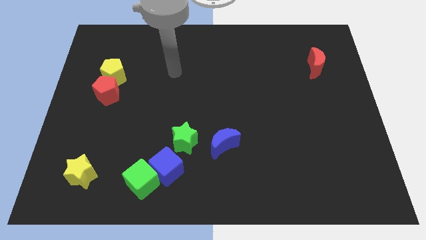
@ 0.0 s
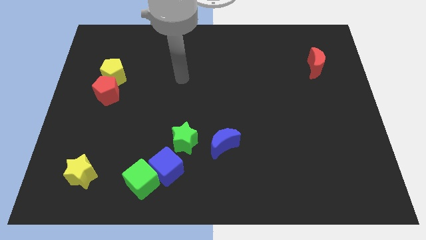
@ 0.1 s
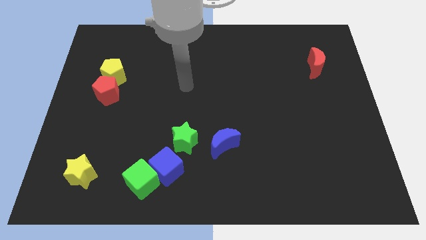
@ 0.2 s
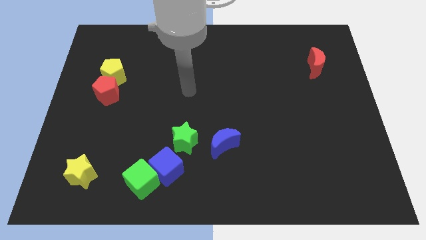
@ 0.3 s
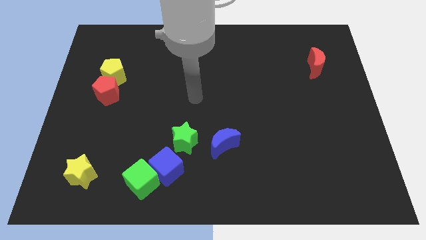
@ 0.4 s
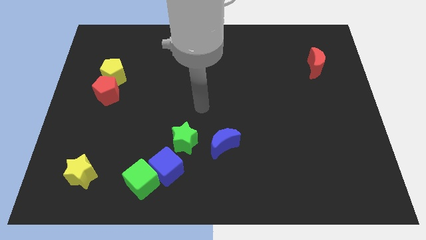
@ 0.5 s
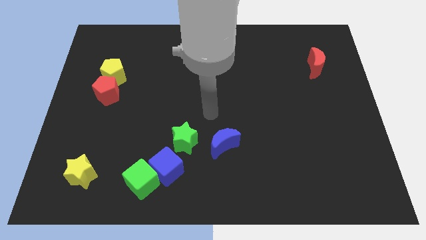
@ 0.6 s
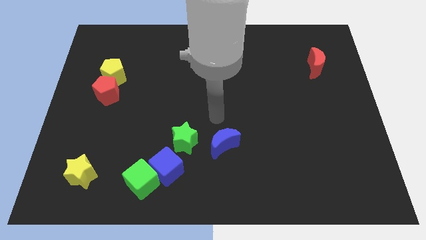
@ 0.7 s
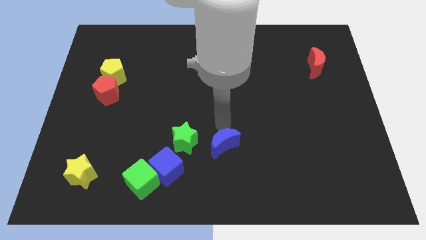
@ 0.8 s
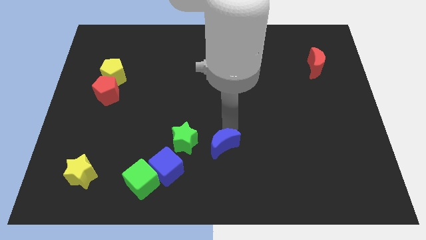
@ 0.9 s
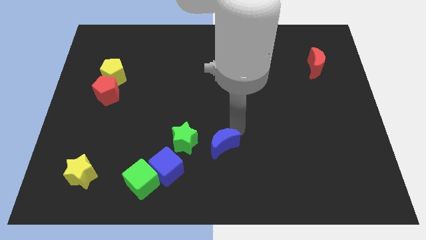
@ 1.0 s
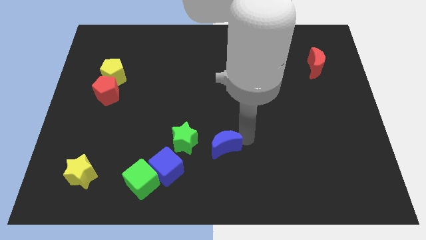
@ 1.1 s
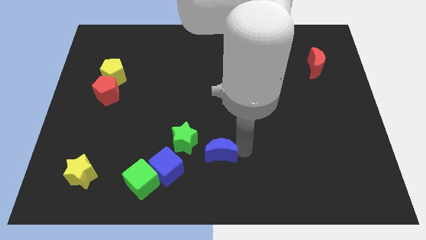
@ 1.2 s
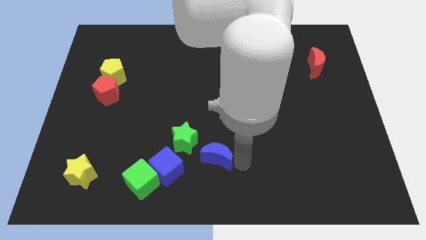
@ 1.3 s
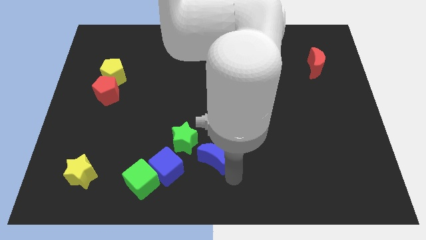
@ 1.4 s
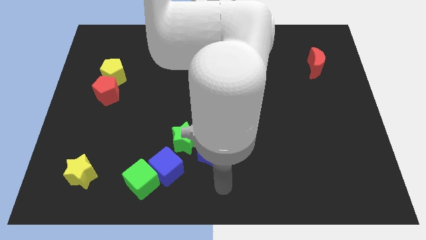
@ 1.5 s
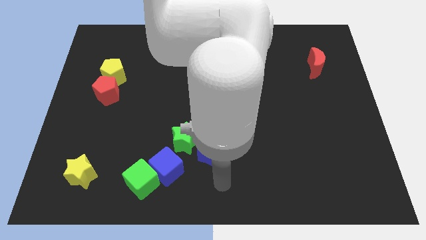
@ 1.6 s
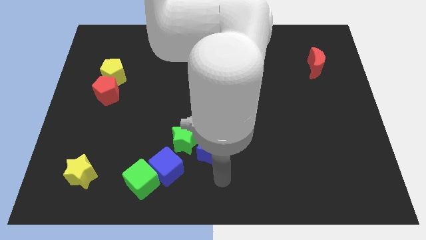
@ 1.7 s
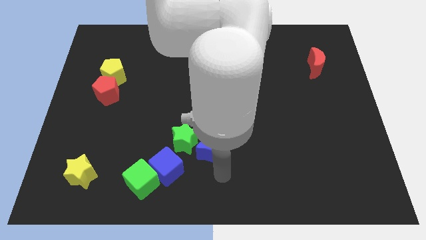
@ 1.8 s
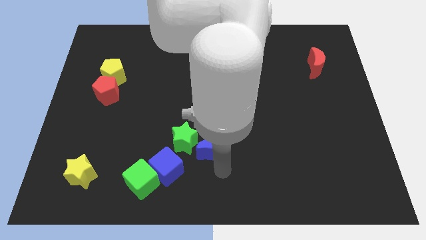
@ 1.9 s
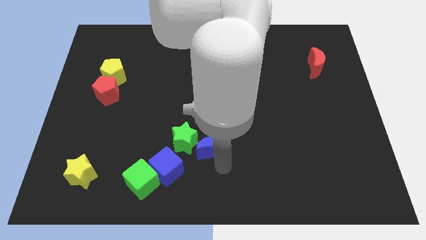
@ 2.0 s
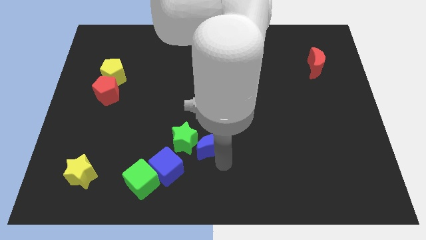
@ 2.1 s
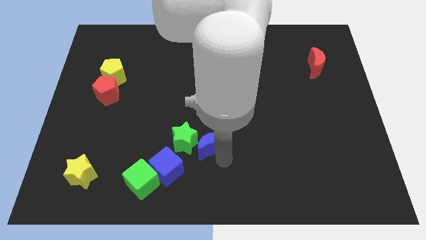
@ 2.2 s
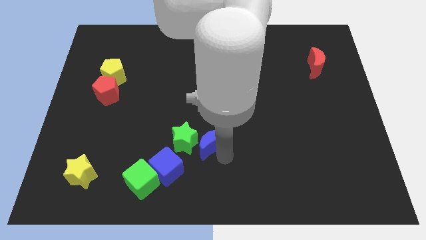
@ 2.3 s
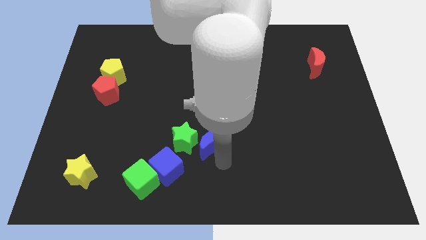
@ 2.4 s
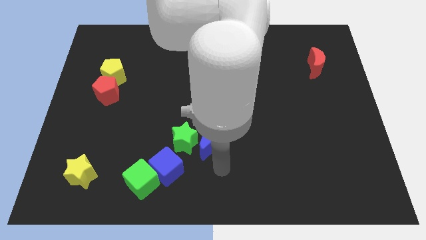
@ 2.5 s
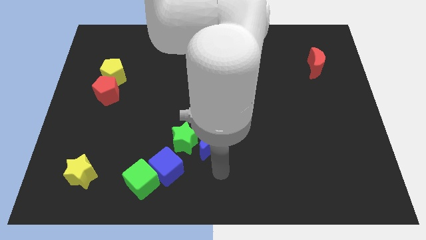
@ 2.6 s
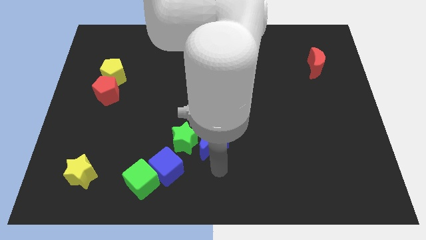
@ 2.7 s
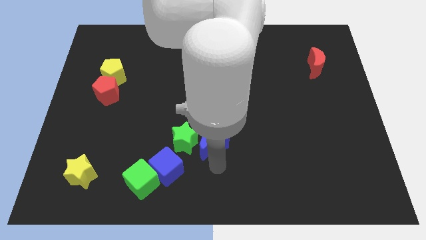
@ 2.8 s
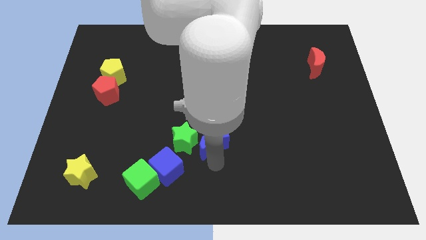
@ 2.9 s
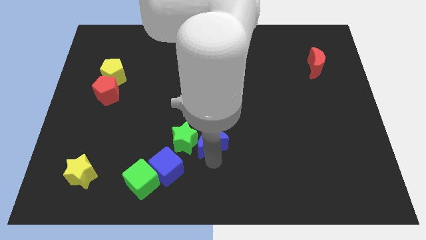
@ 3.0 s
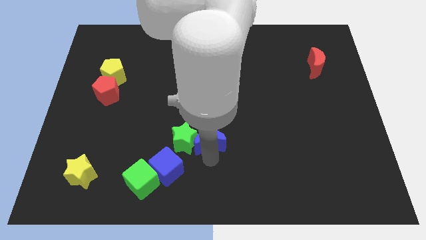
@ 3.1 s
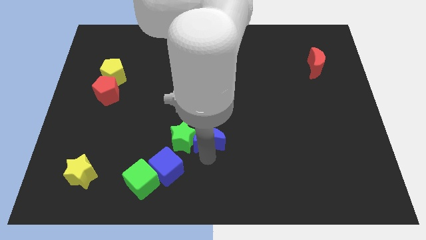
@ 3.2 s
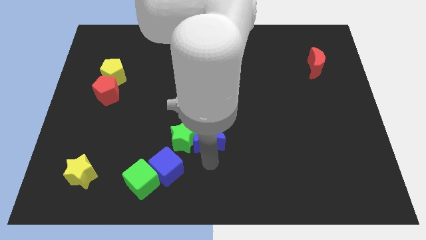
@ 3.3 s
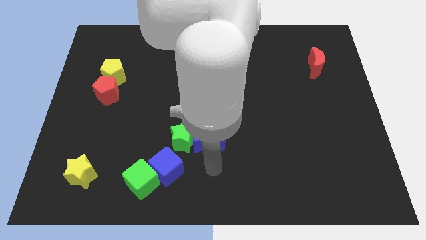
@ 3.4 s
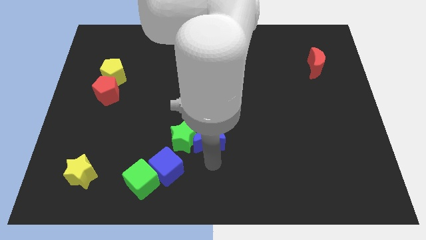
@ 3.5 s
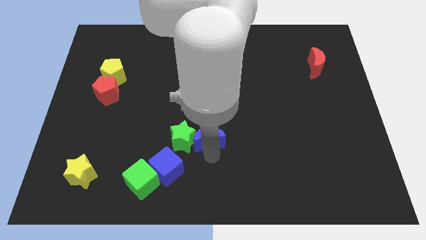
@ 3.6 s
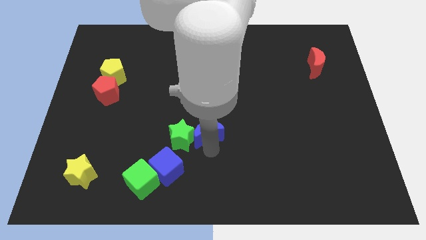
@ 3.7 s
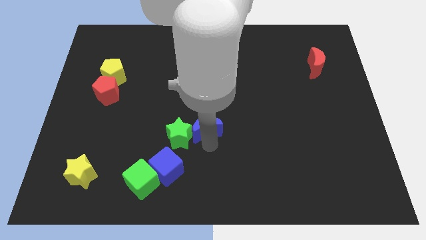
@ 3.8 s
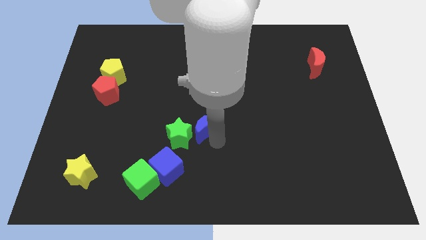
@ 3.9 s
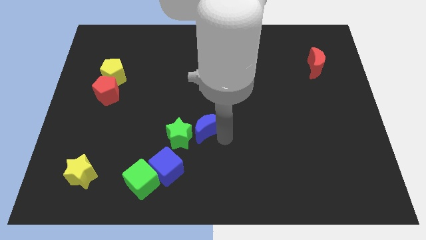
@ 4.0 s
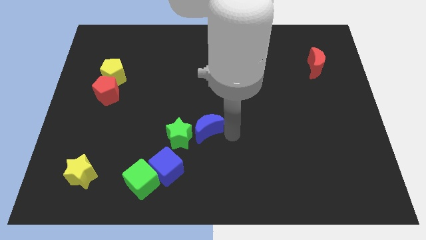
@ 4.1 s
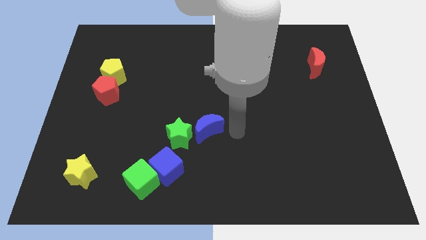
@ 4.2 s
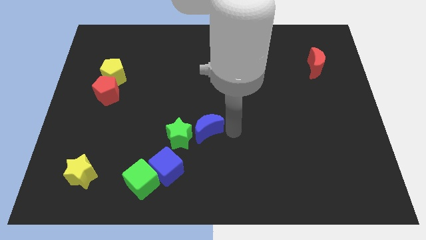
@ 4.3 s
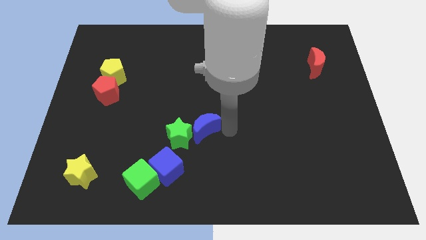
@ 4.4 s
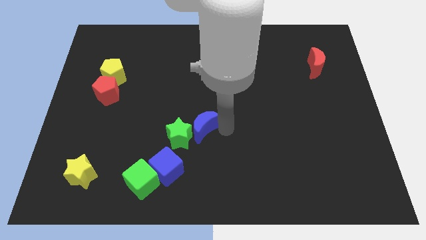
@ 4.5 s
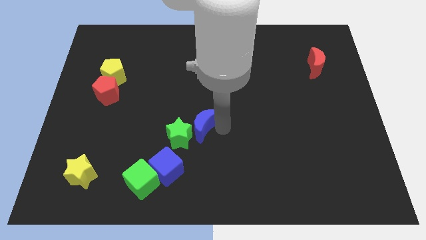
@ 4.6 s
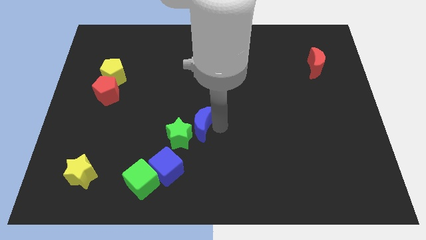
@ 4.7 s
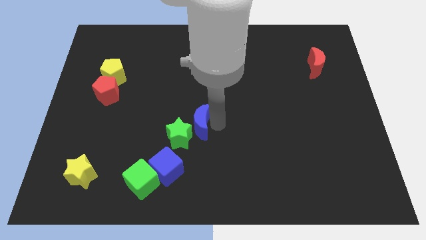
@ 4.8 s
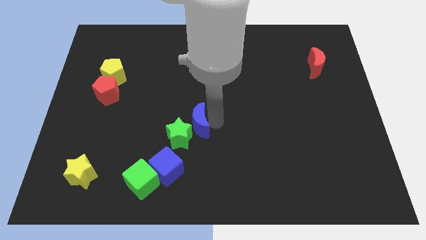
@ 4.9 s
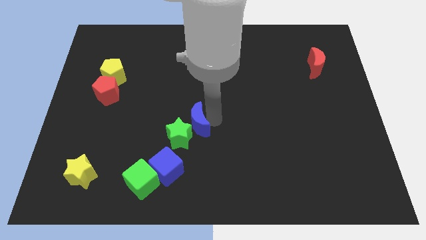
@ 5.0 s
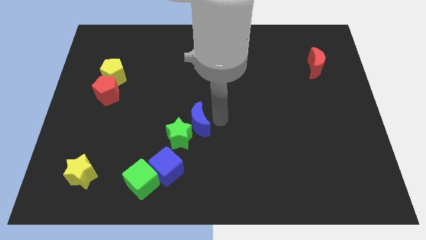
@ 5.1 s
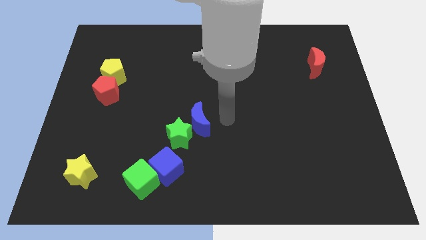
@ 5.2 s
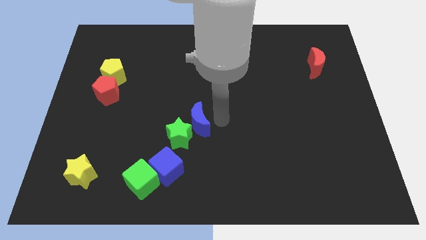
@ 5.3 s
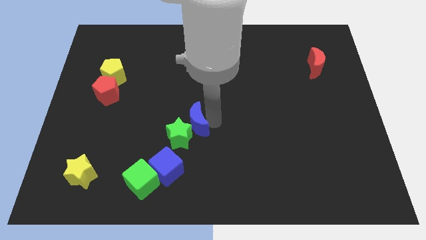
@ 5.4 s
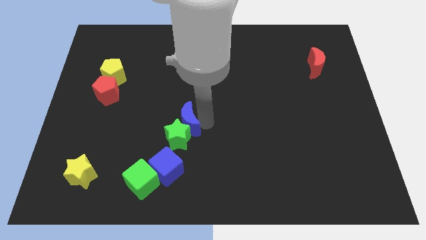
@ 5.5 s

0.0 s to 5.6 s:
push the blue moon to the top side of the blue cube
